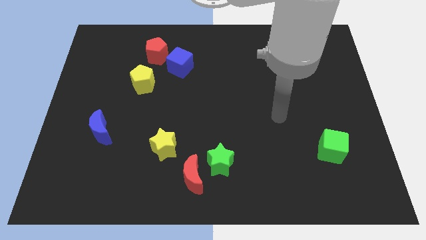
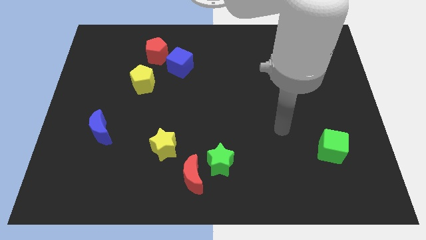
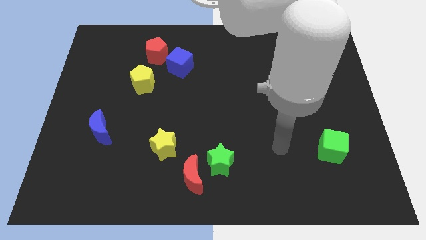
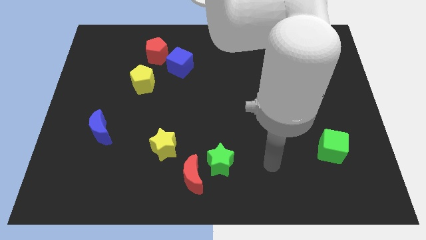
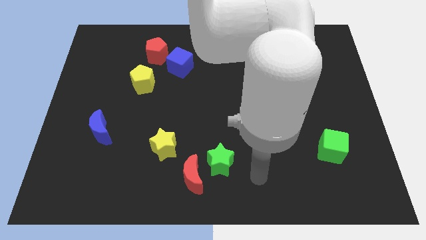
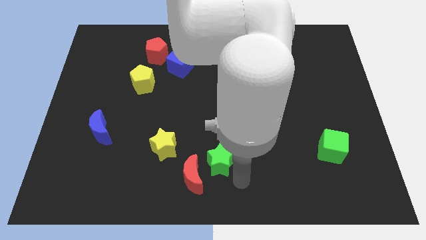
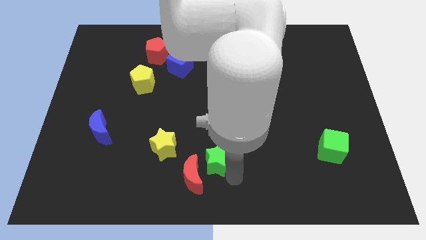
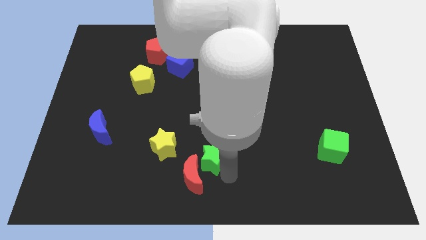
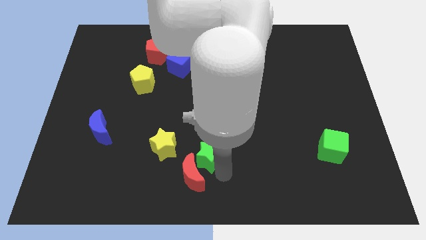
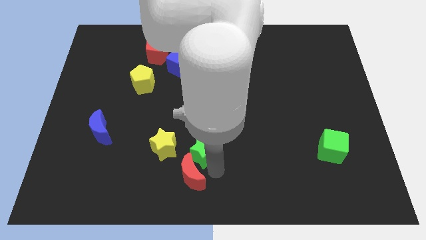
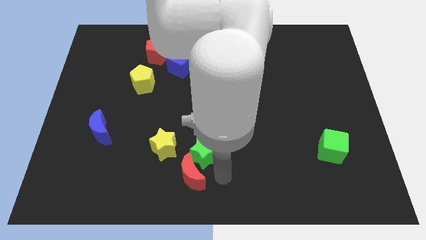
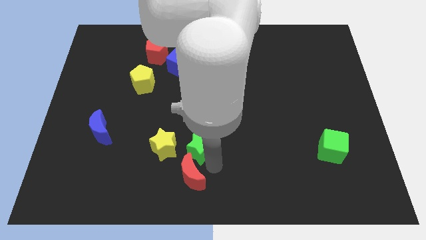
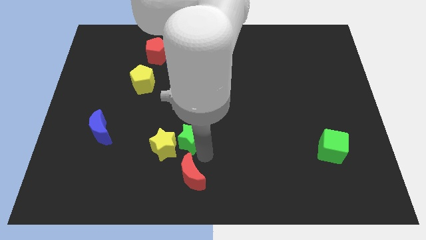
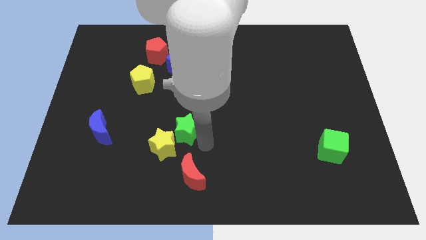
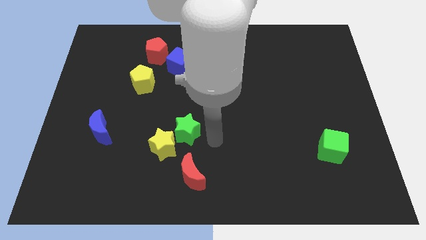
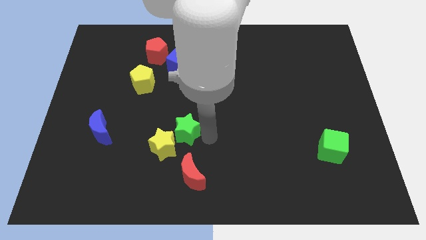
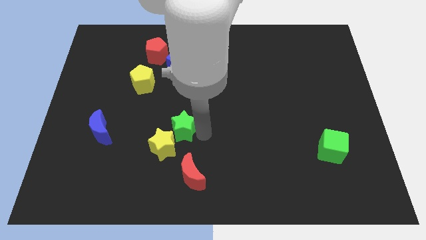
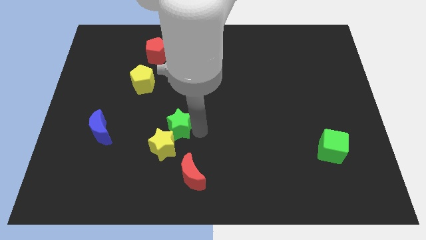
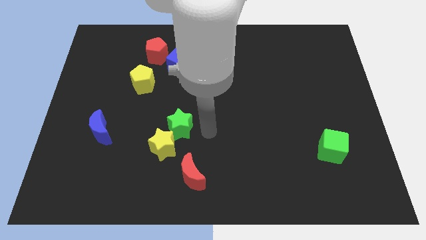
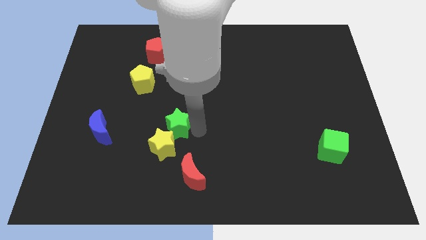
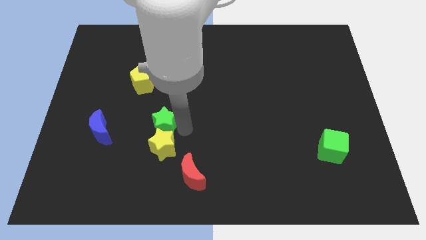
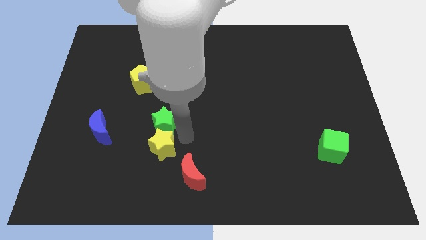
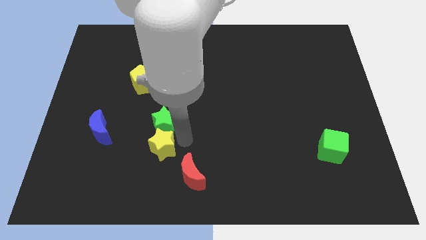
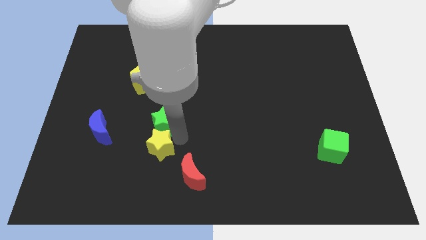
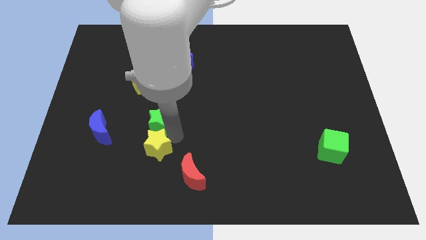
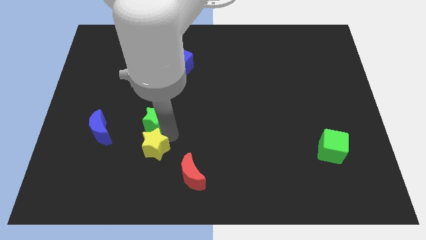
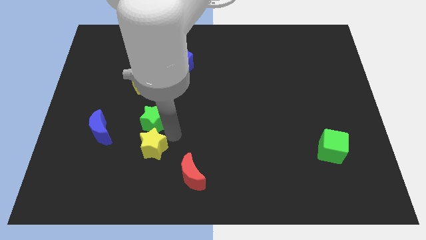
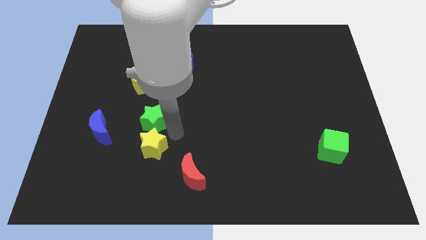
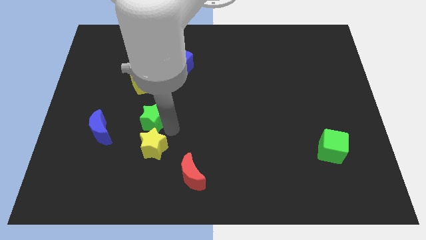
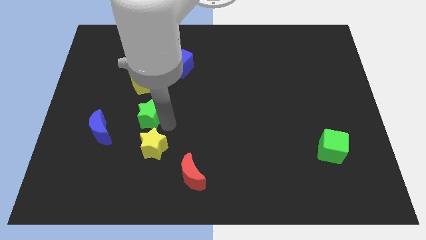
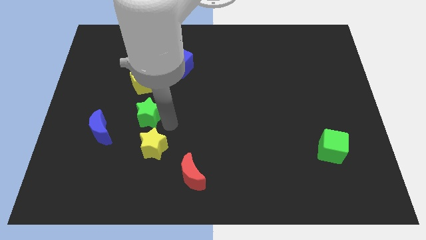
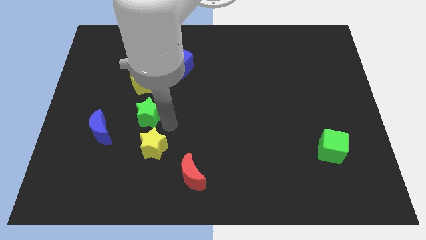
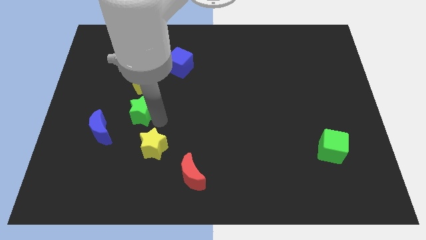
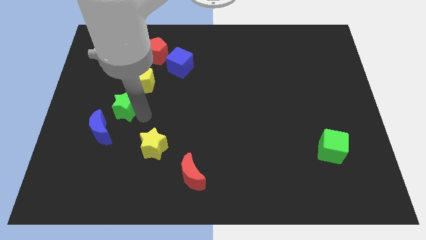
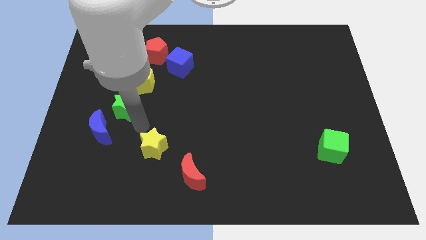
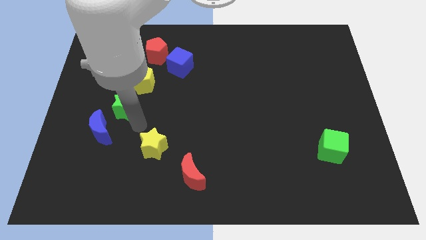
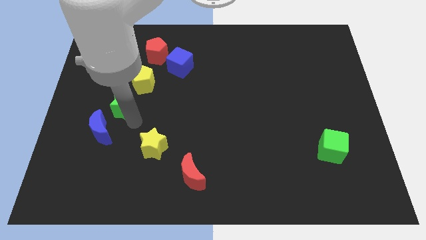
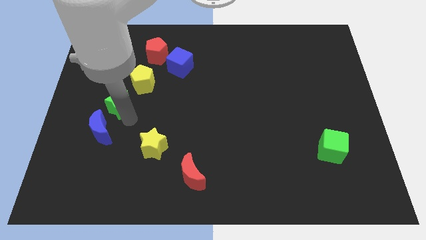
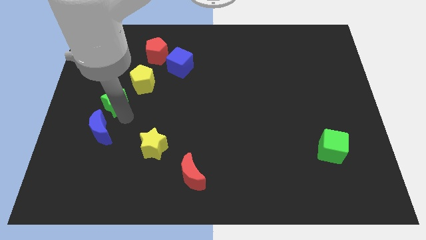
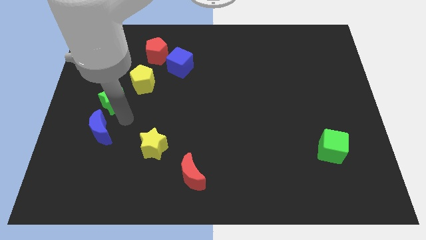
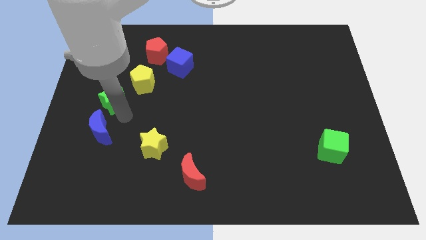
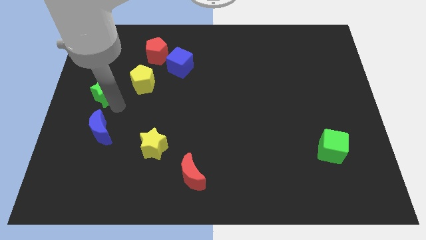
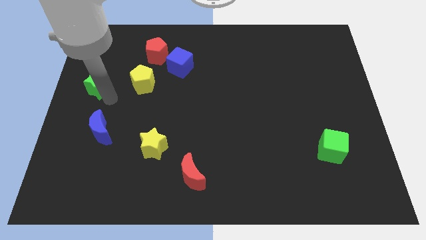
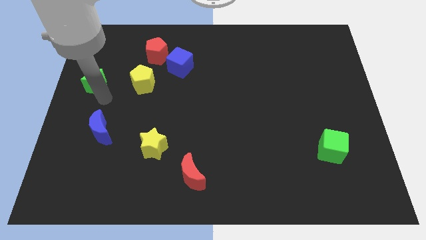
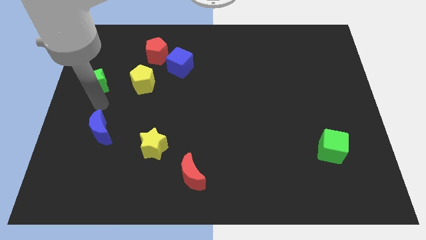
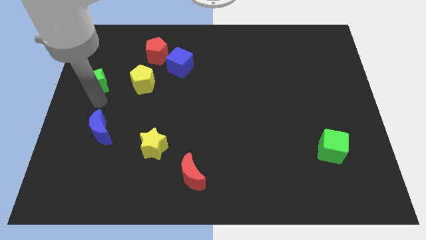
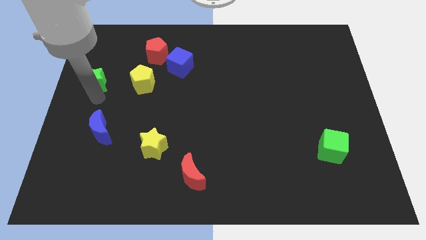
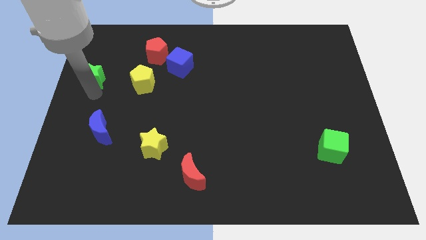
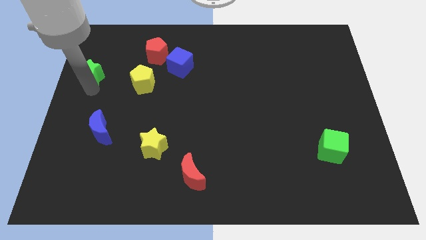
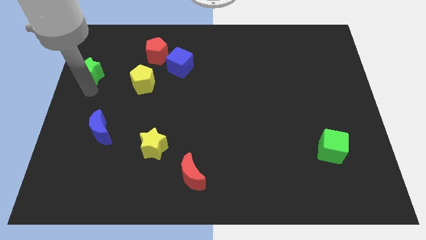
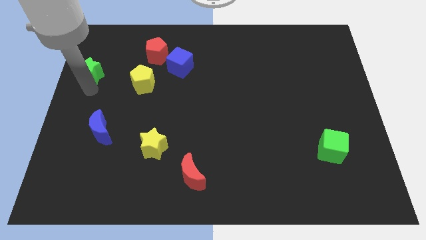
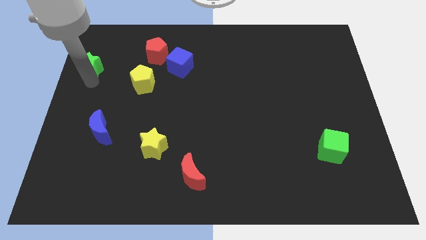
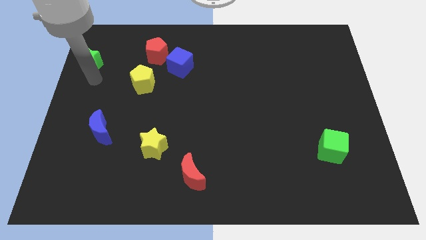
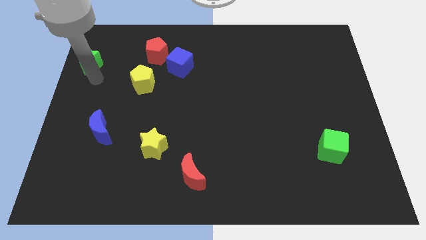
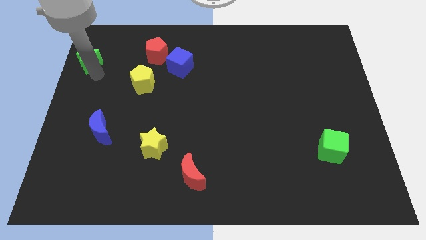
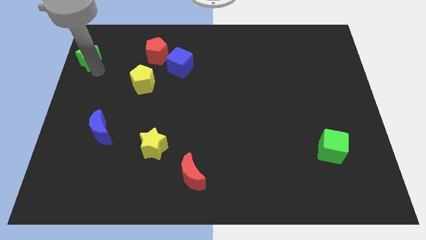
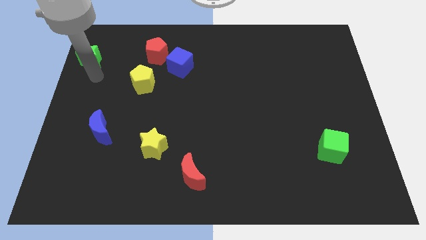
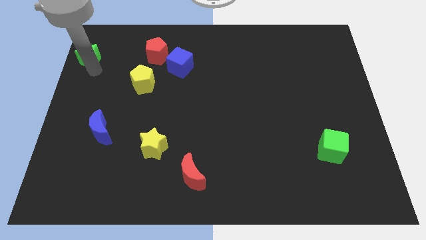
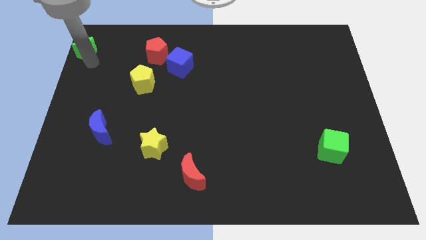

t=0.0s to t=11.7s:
slide the green star to the top left

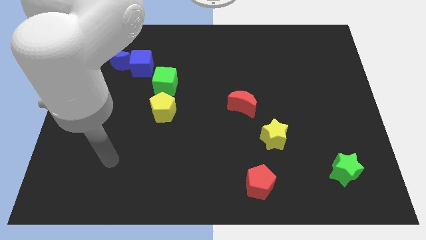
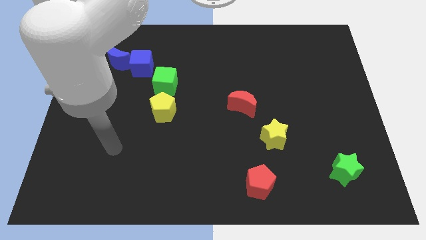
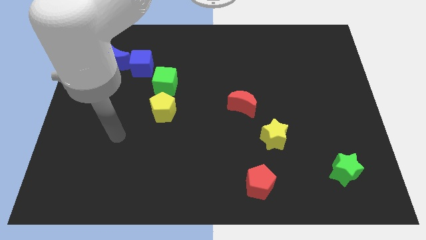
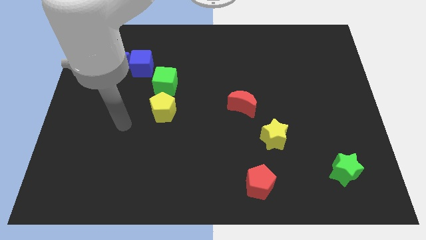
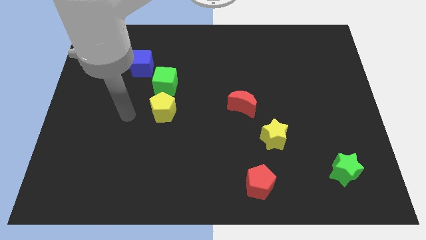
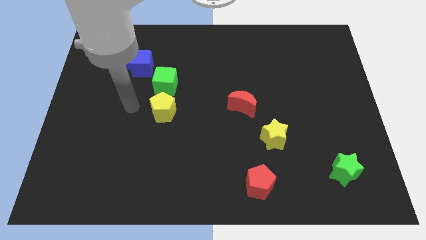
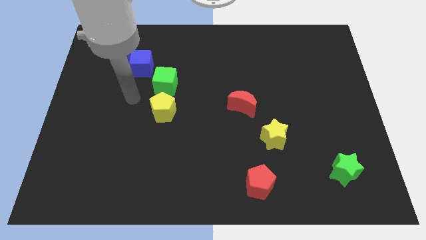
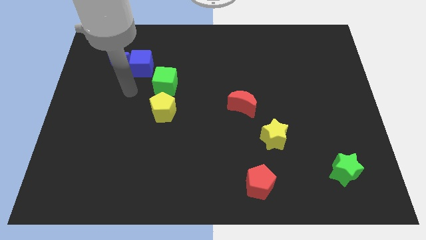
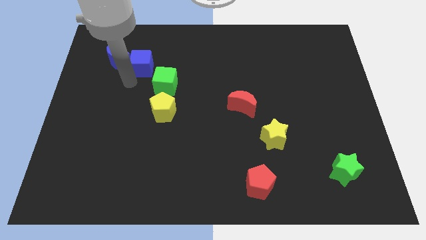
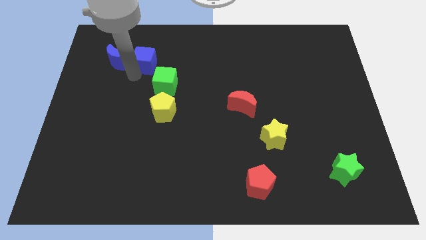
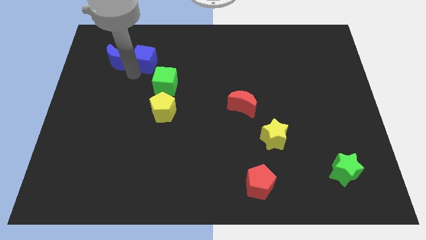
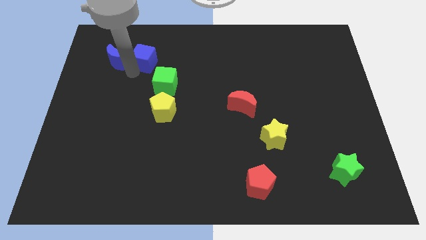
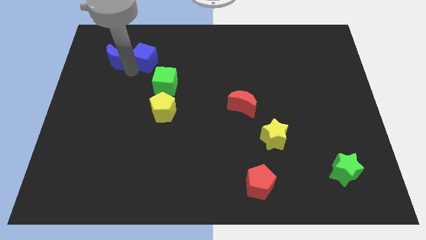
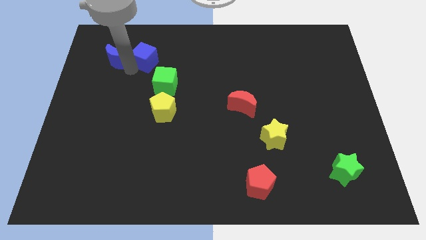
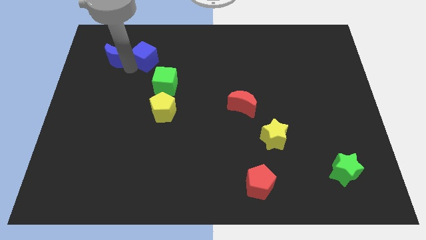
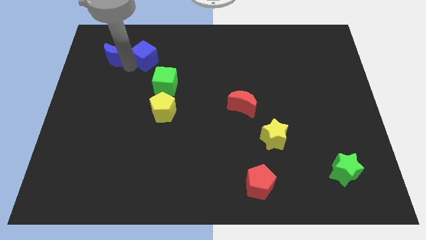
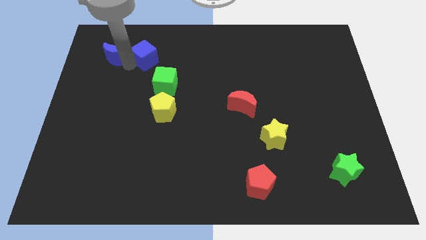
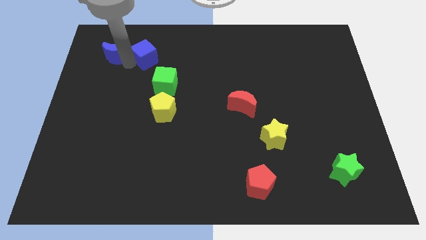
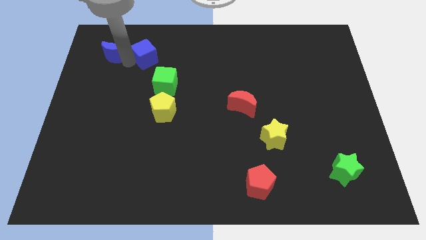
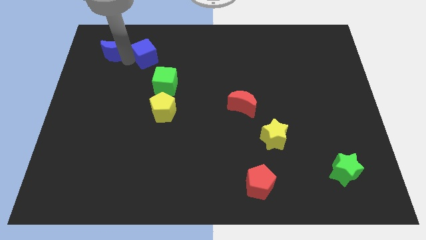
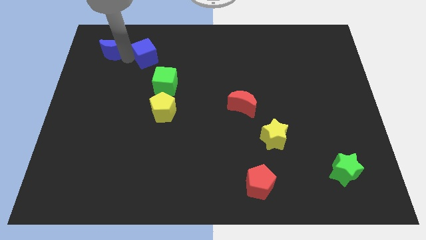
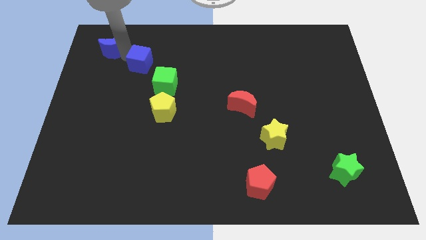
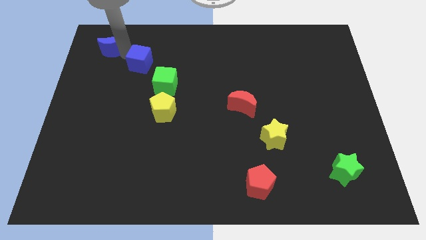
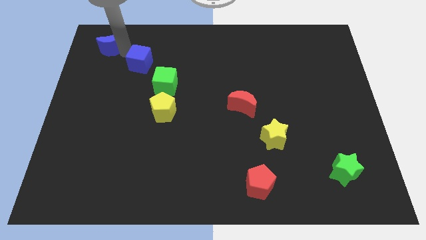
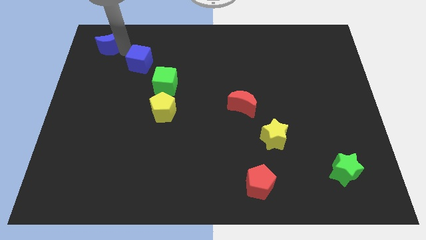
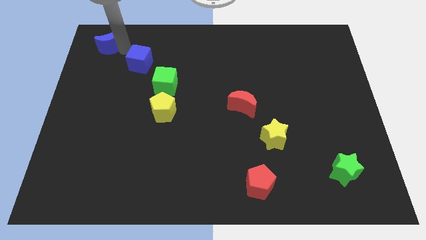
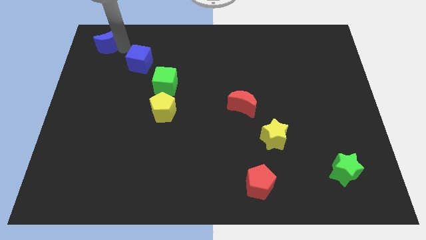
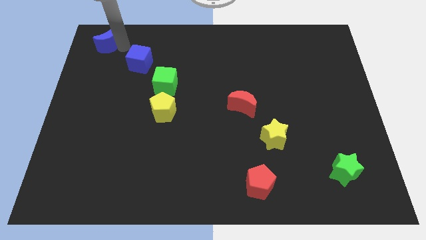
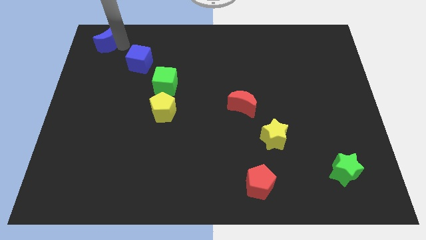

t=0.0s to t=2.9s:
move the blue moon to the top left corner

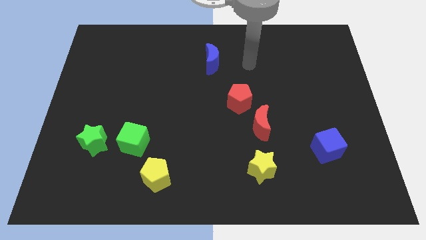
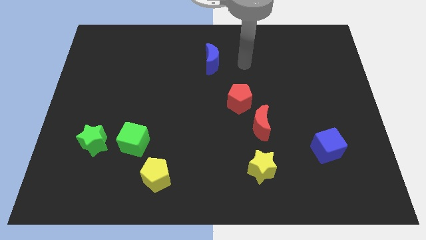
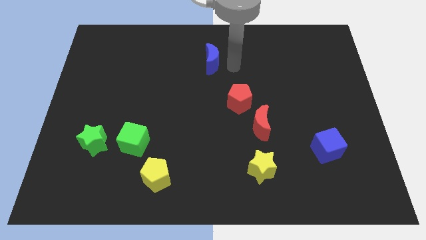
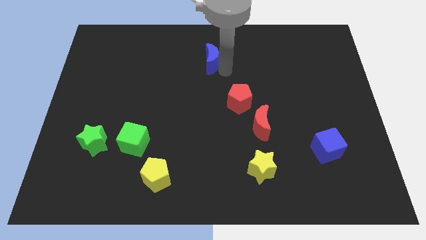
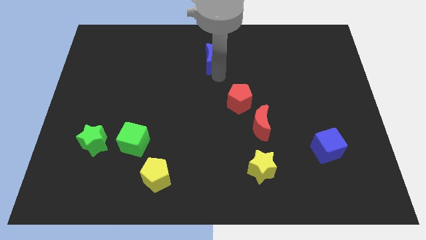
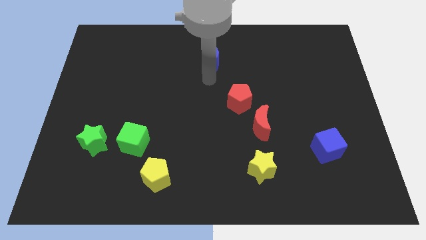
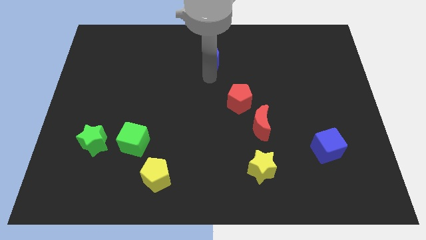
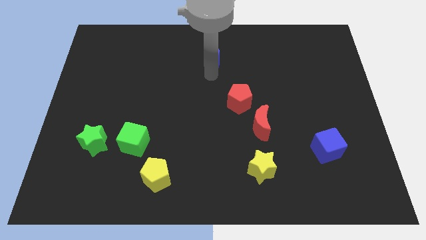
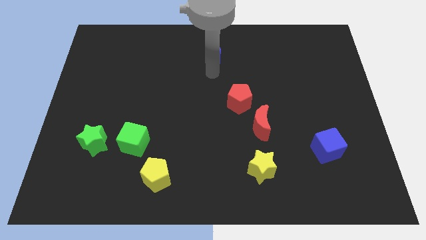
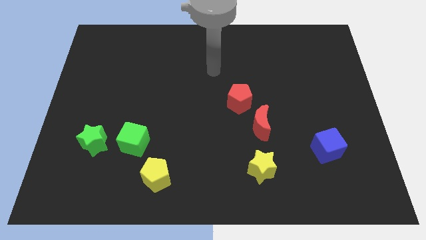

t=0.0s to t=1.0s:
slide the blue moon to the towards your base
